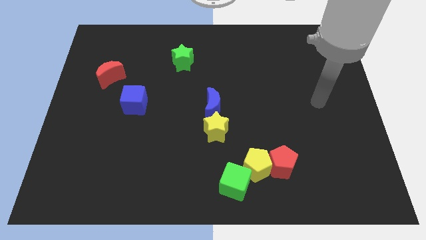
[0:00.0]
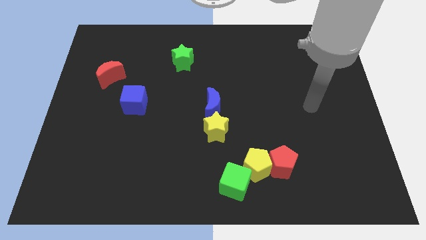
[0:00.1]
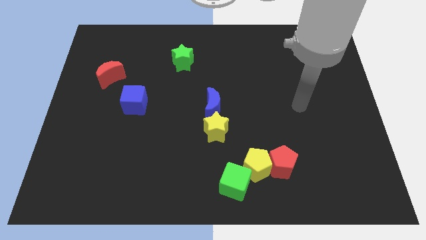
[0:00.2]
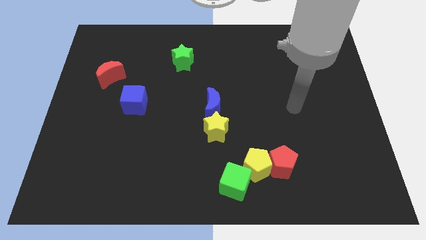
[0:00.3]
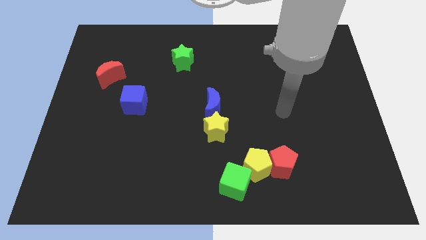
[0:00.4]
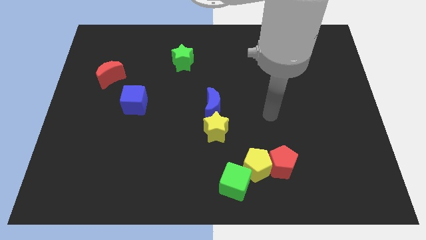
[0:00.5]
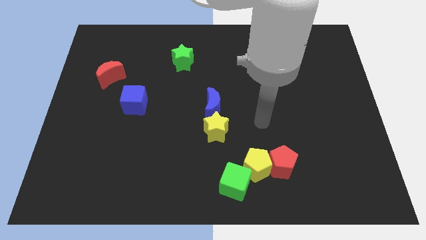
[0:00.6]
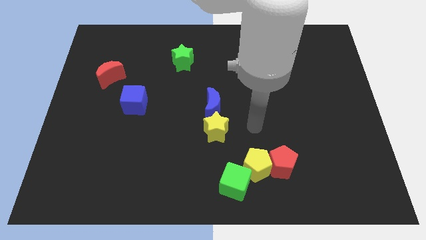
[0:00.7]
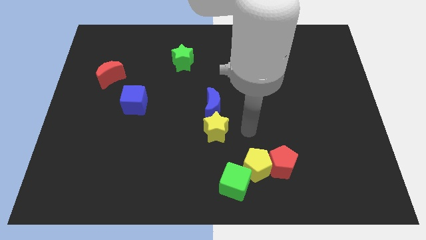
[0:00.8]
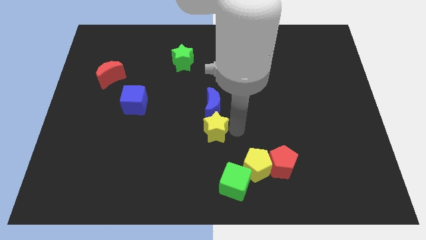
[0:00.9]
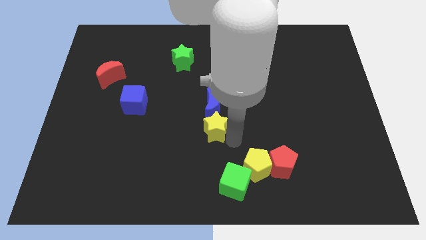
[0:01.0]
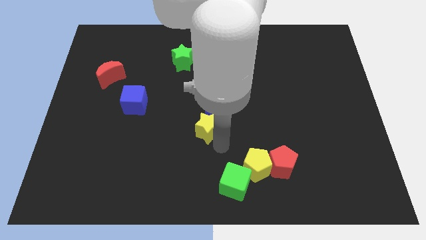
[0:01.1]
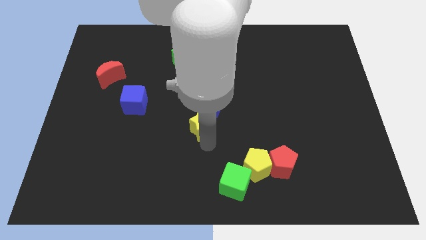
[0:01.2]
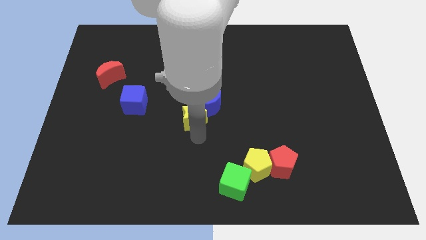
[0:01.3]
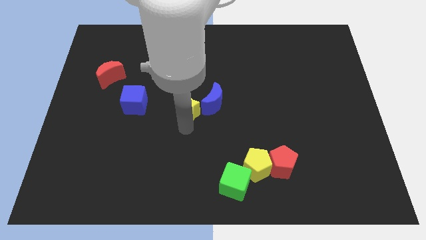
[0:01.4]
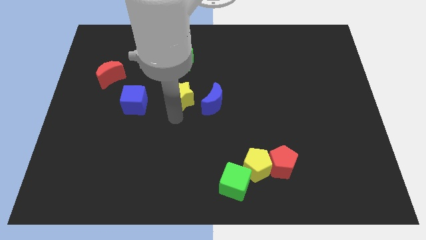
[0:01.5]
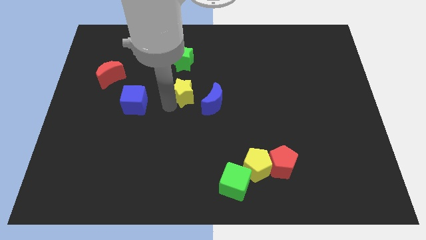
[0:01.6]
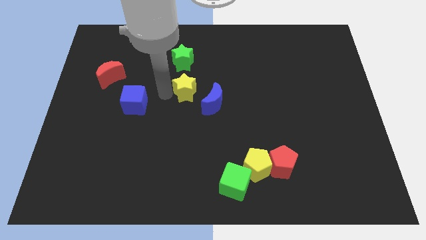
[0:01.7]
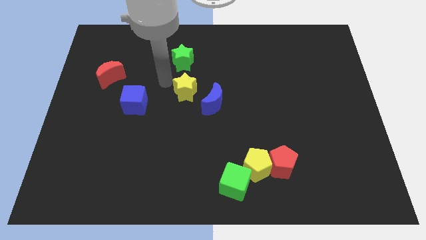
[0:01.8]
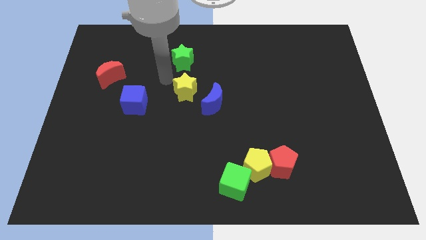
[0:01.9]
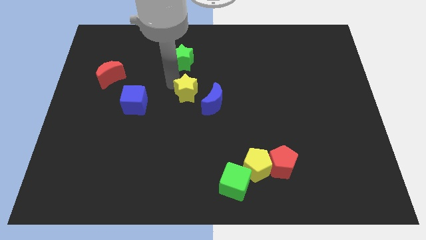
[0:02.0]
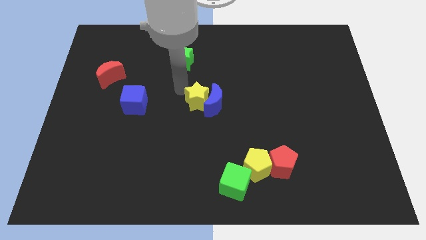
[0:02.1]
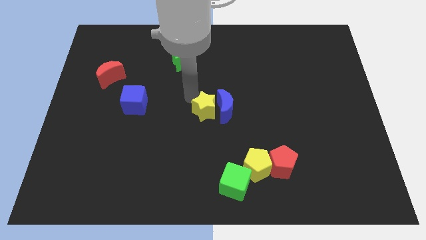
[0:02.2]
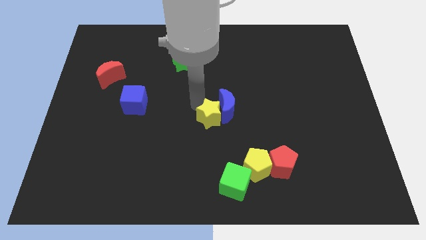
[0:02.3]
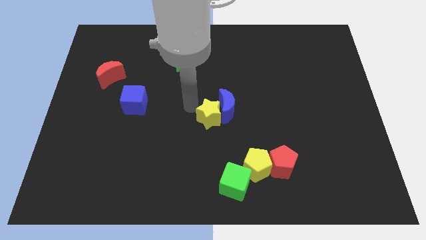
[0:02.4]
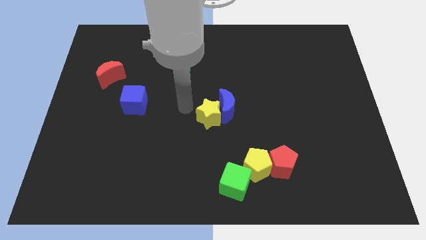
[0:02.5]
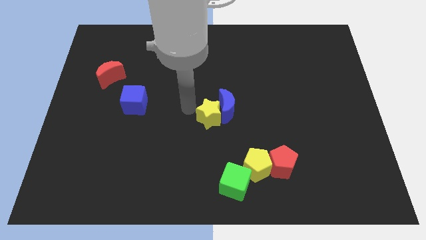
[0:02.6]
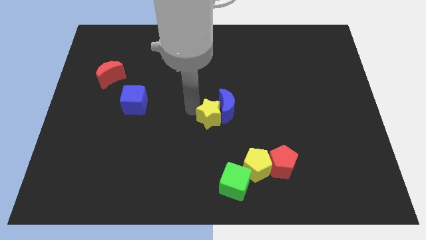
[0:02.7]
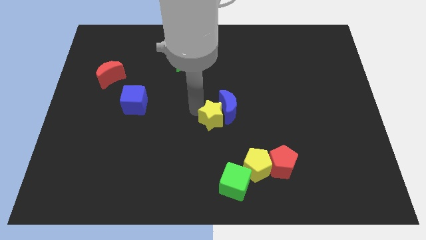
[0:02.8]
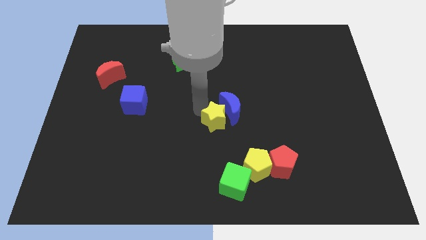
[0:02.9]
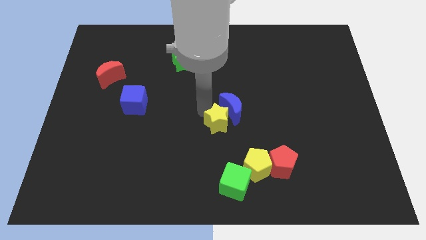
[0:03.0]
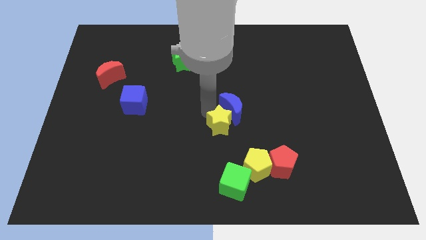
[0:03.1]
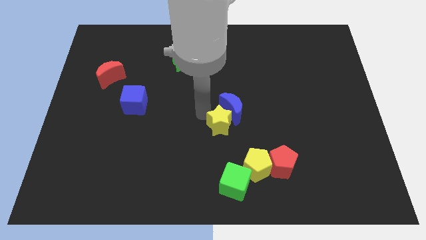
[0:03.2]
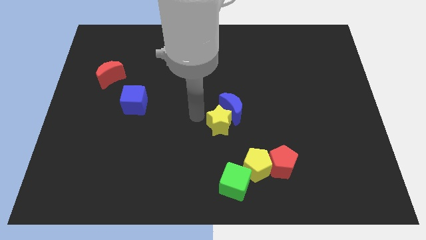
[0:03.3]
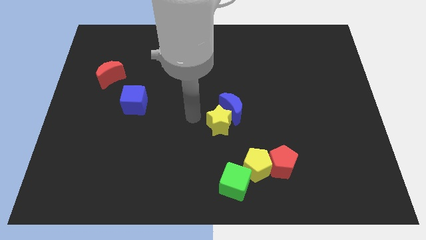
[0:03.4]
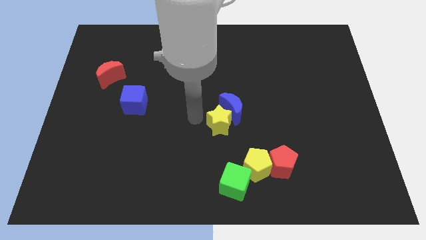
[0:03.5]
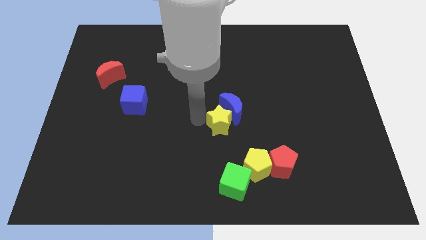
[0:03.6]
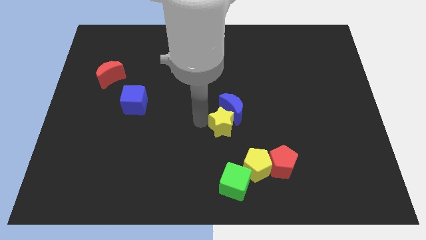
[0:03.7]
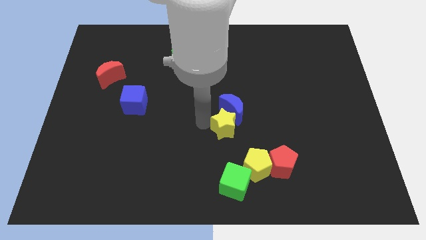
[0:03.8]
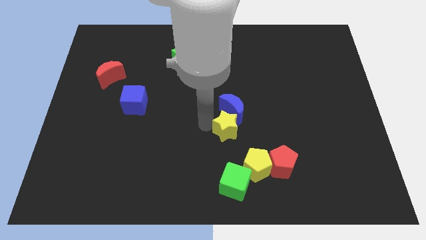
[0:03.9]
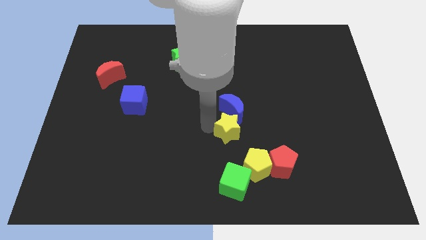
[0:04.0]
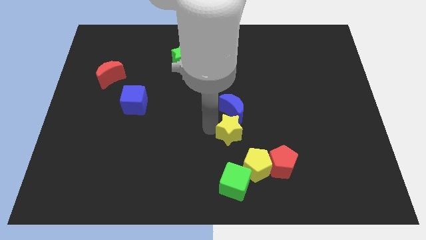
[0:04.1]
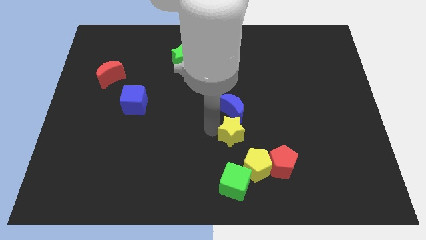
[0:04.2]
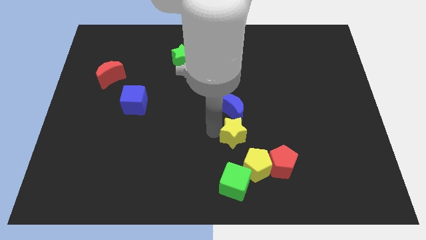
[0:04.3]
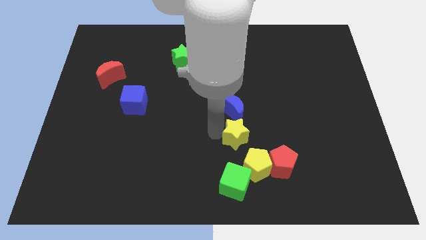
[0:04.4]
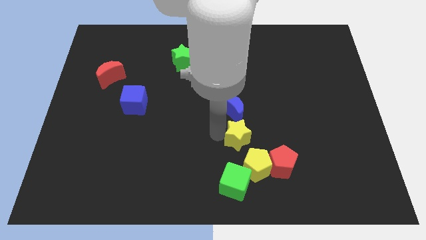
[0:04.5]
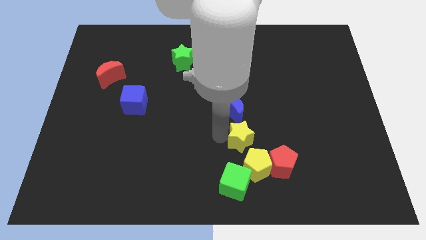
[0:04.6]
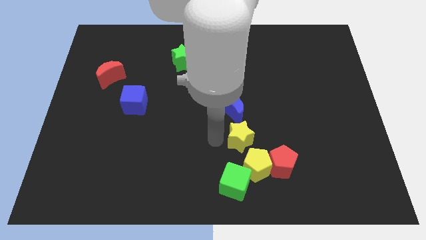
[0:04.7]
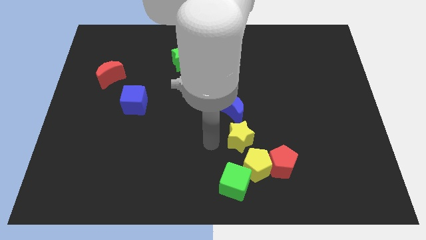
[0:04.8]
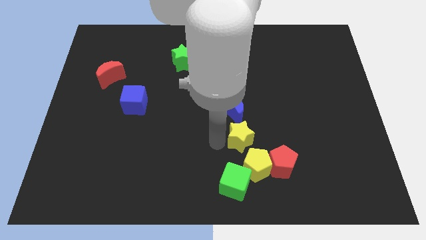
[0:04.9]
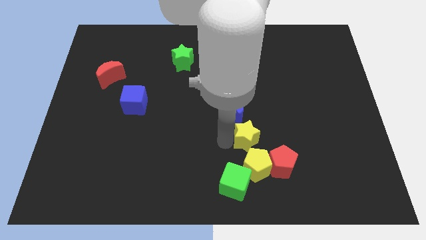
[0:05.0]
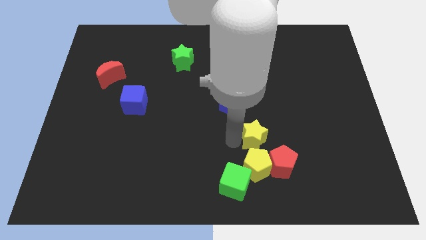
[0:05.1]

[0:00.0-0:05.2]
slightly slide the yellow star right

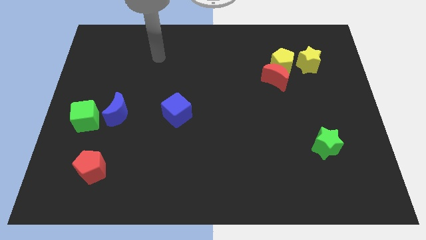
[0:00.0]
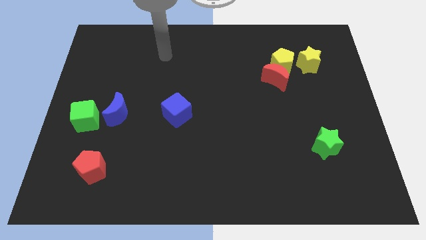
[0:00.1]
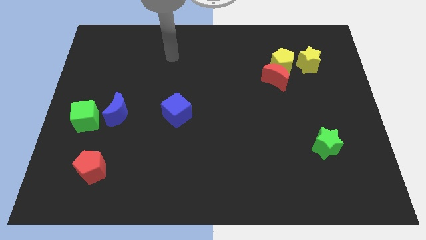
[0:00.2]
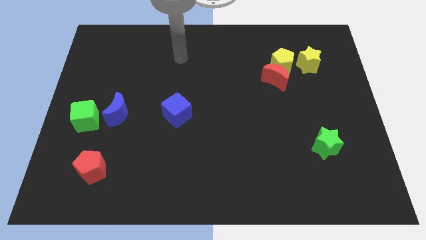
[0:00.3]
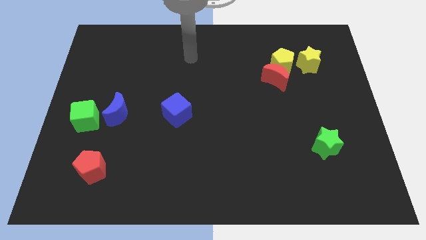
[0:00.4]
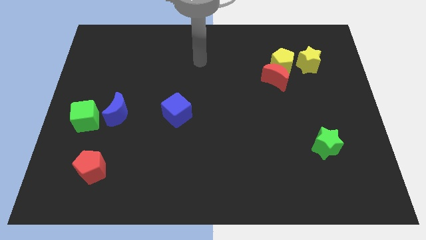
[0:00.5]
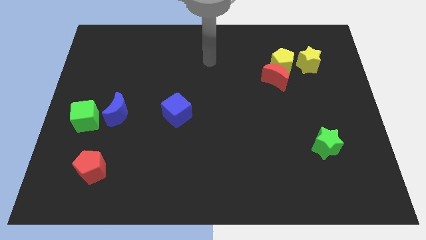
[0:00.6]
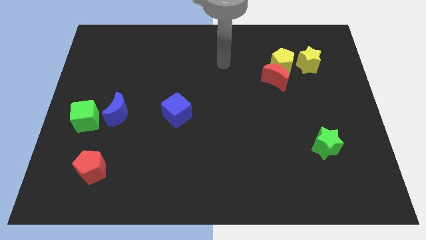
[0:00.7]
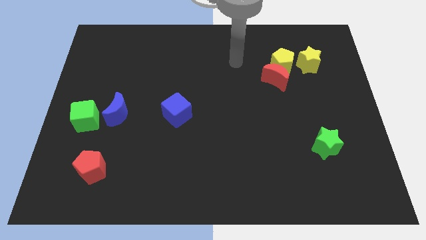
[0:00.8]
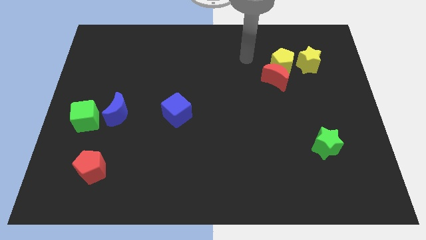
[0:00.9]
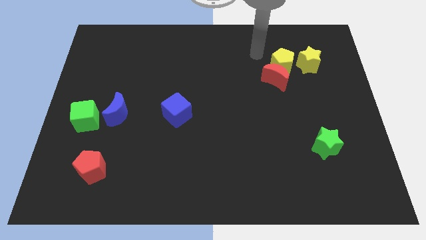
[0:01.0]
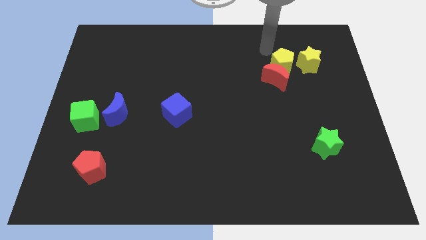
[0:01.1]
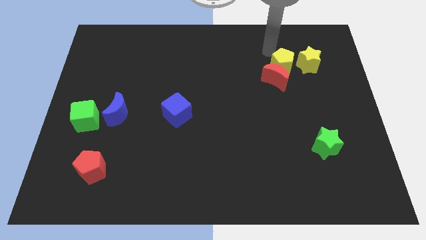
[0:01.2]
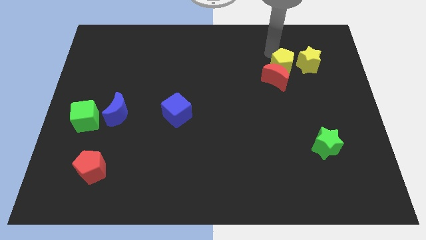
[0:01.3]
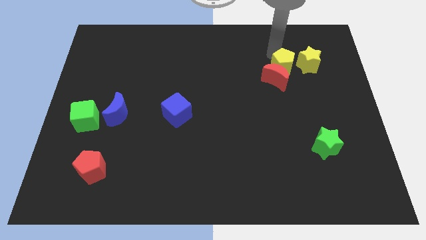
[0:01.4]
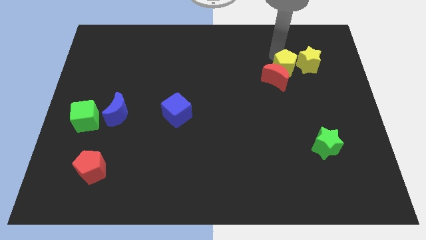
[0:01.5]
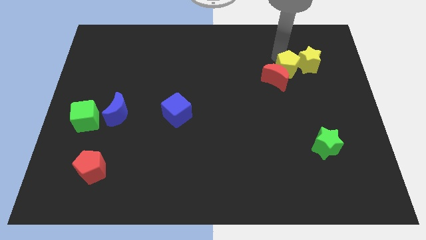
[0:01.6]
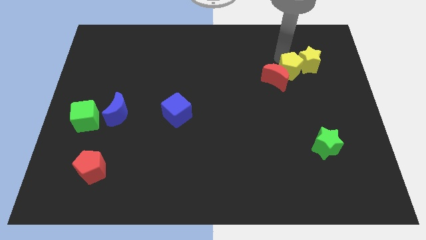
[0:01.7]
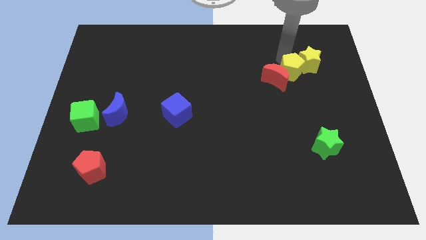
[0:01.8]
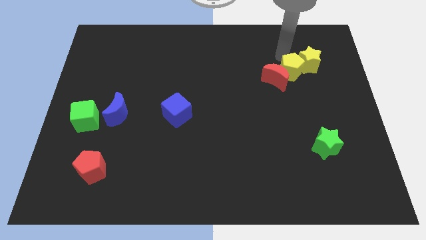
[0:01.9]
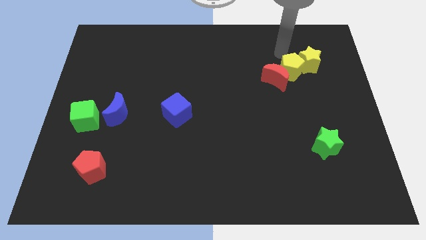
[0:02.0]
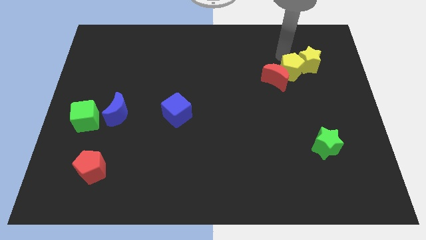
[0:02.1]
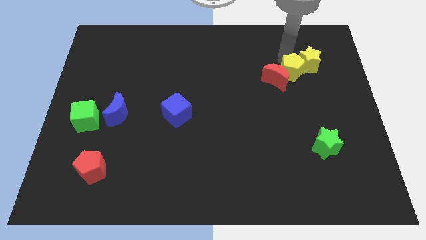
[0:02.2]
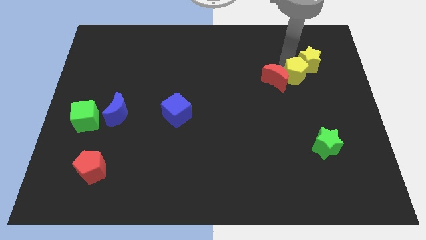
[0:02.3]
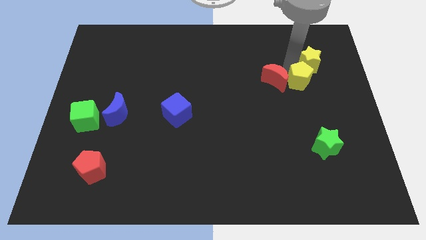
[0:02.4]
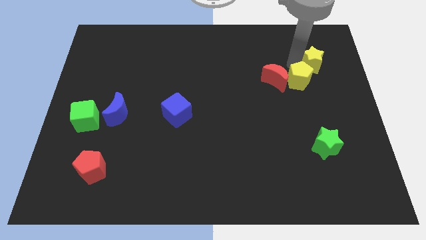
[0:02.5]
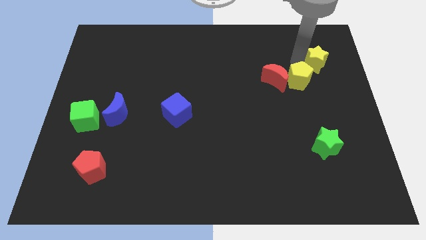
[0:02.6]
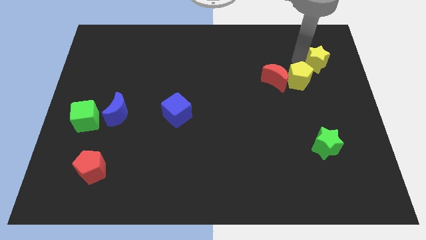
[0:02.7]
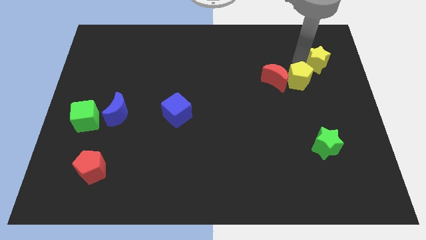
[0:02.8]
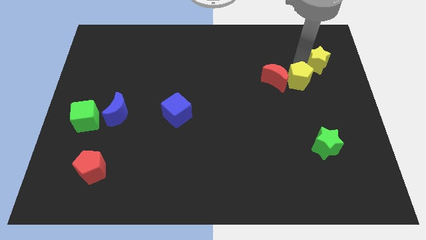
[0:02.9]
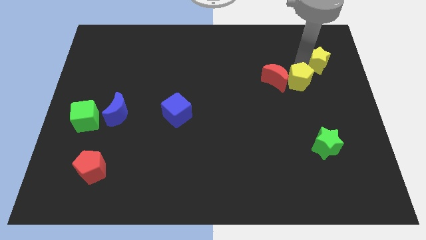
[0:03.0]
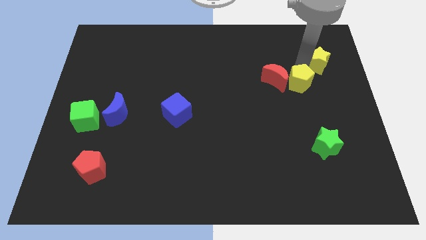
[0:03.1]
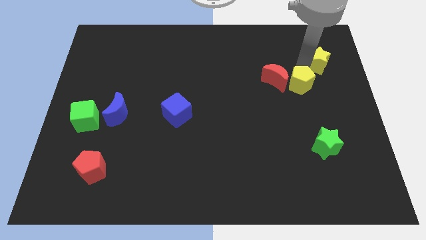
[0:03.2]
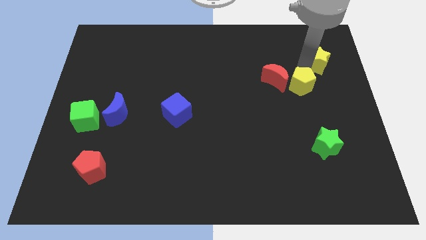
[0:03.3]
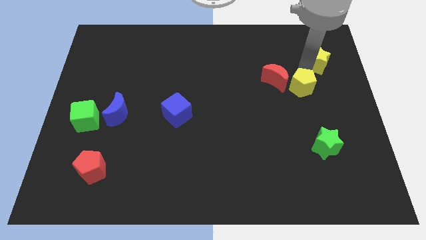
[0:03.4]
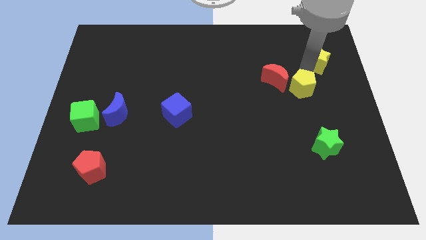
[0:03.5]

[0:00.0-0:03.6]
push the yellow pentagon slightly down
